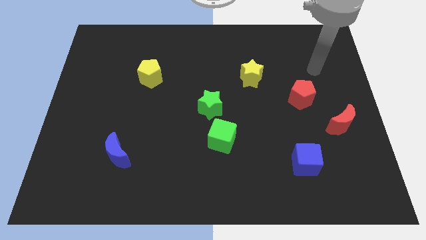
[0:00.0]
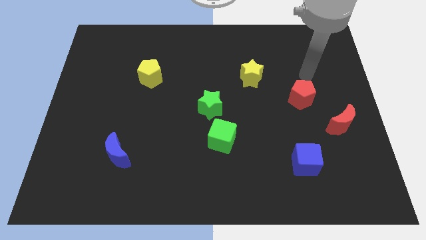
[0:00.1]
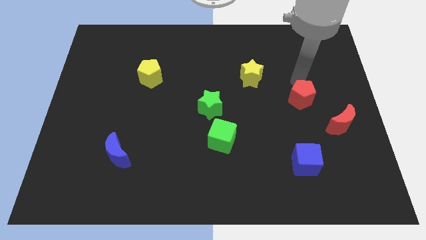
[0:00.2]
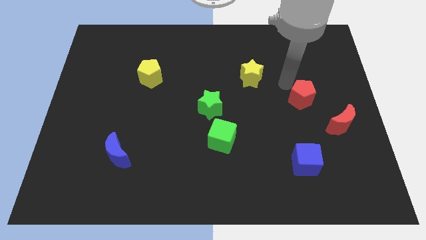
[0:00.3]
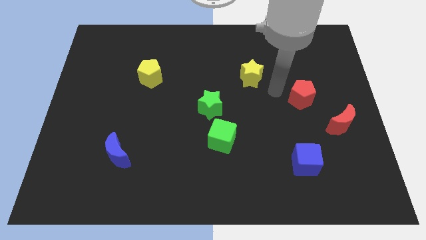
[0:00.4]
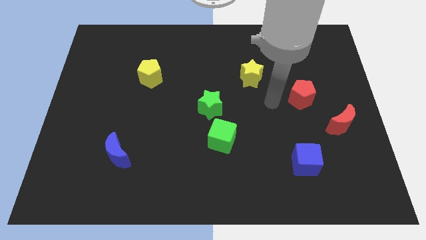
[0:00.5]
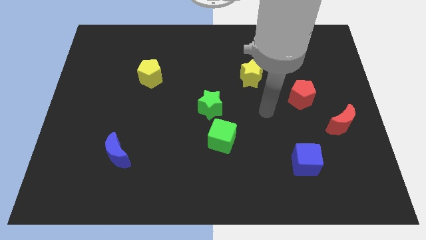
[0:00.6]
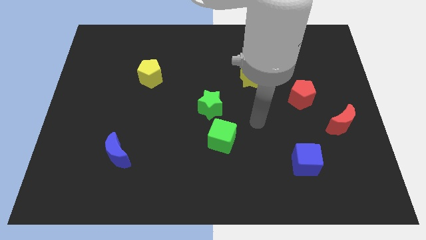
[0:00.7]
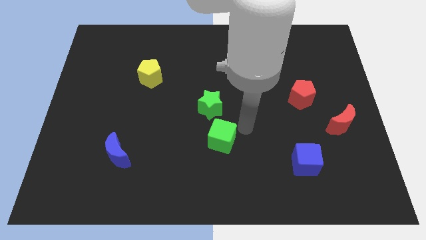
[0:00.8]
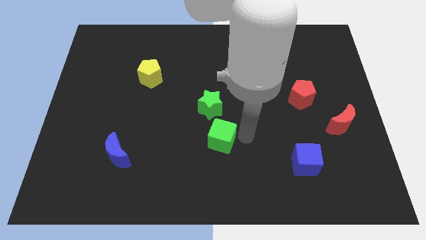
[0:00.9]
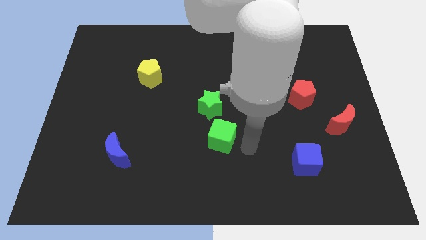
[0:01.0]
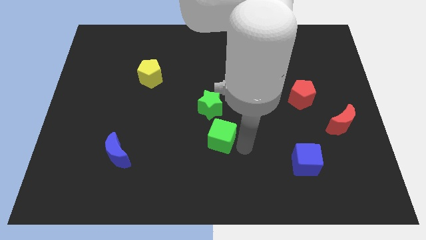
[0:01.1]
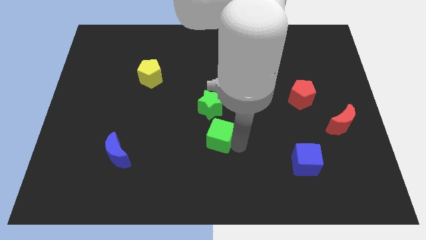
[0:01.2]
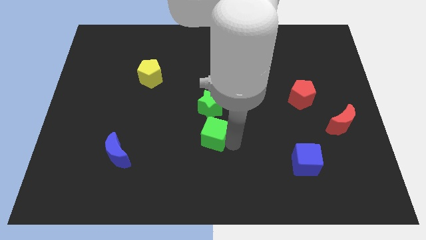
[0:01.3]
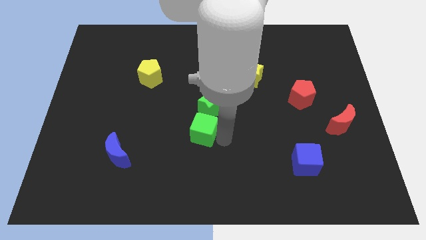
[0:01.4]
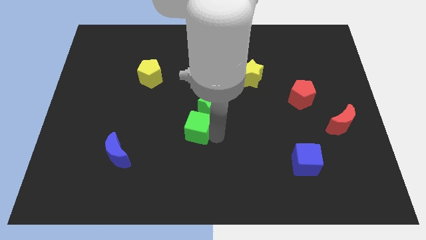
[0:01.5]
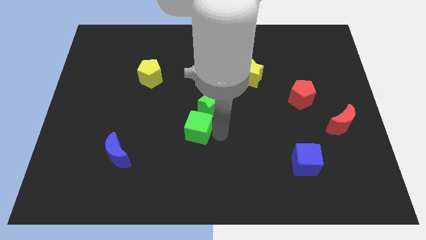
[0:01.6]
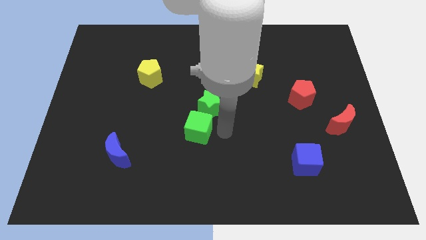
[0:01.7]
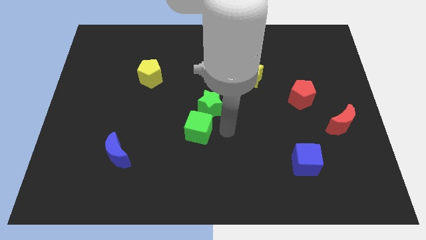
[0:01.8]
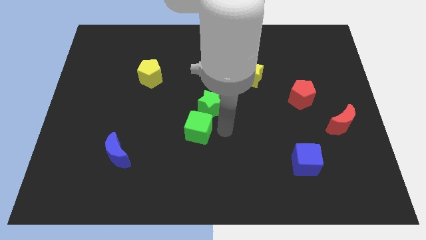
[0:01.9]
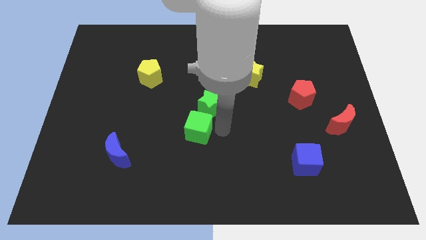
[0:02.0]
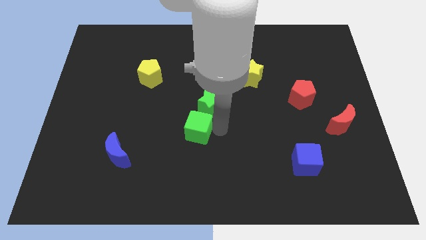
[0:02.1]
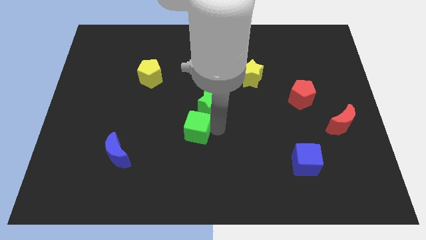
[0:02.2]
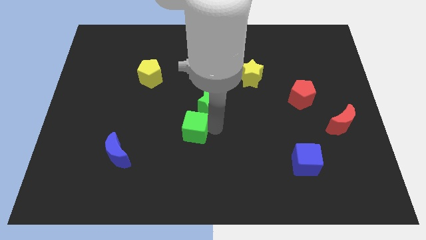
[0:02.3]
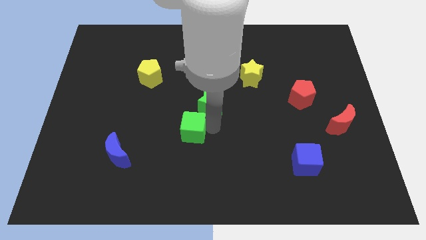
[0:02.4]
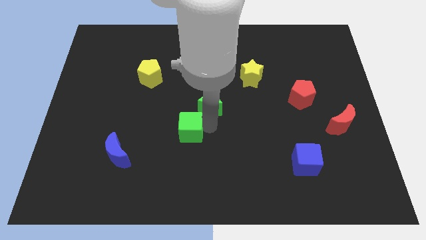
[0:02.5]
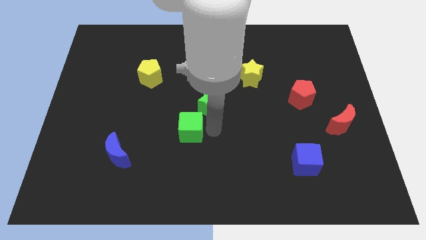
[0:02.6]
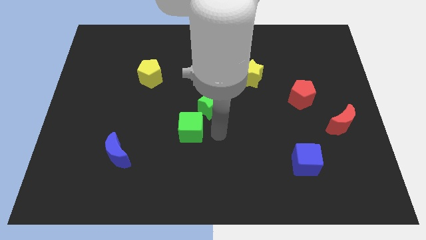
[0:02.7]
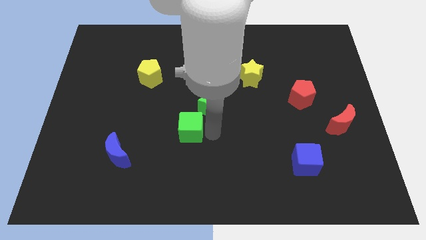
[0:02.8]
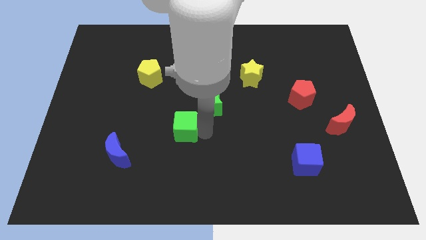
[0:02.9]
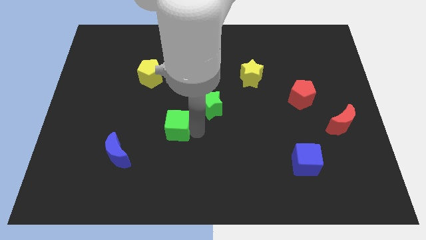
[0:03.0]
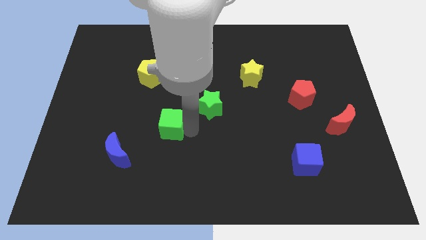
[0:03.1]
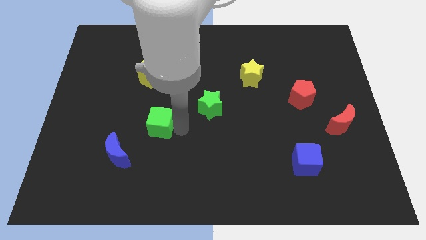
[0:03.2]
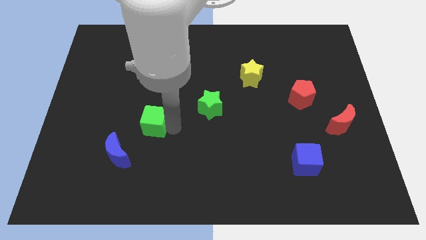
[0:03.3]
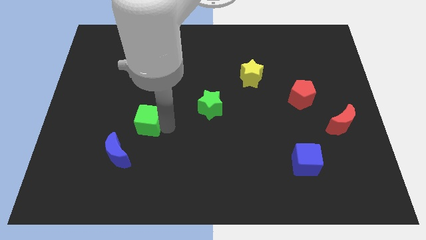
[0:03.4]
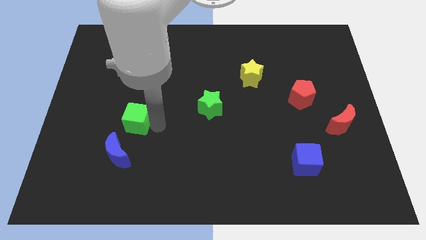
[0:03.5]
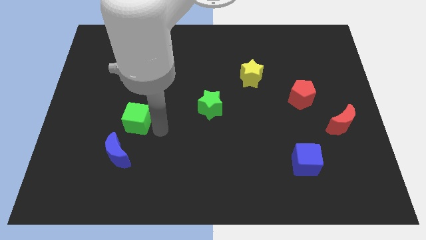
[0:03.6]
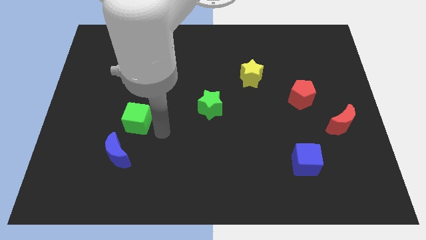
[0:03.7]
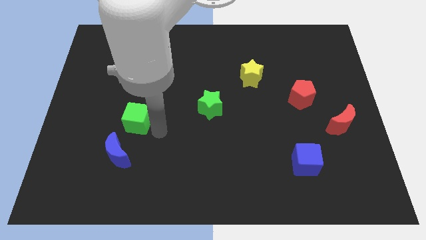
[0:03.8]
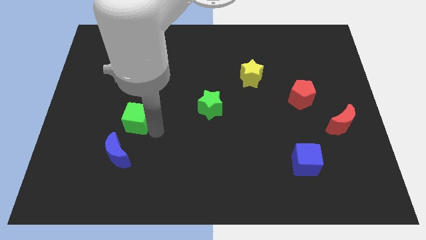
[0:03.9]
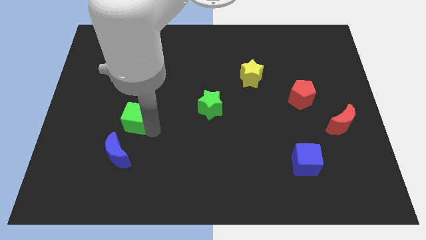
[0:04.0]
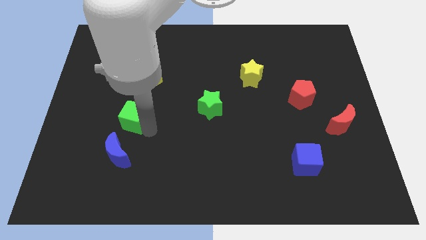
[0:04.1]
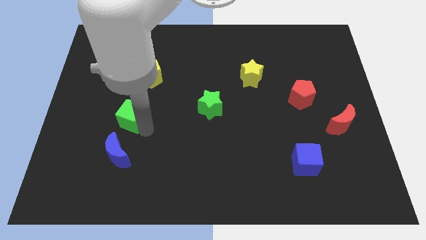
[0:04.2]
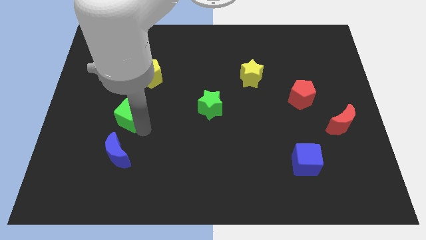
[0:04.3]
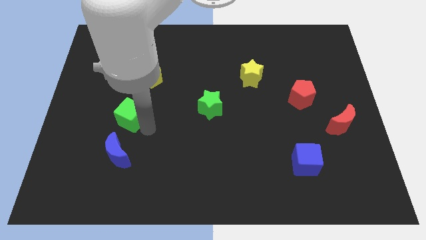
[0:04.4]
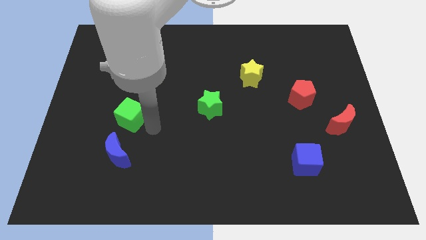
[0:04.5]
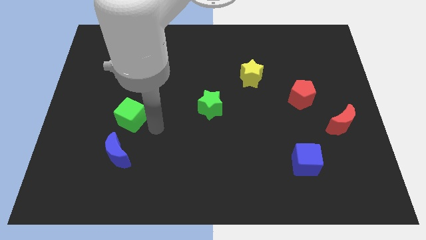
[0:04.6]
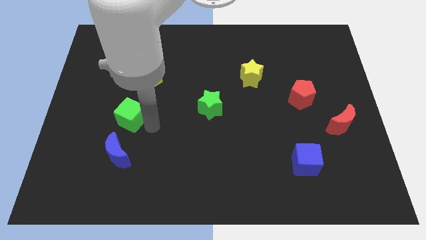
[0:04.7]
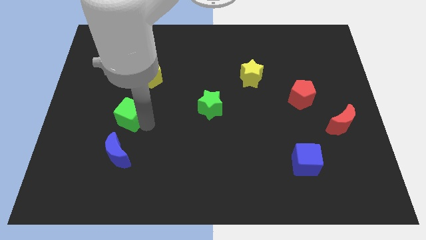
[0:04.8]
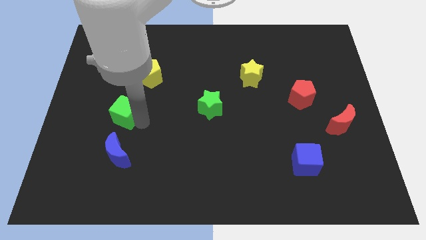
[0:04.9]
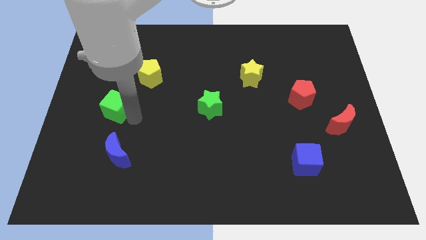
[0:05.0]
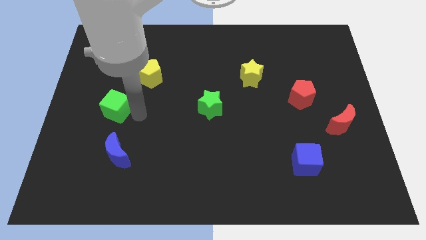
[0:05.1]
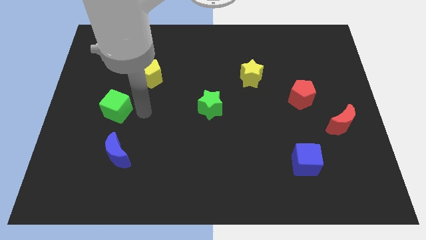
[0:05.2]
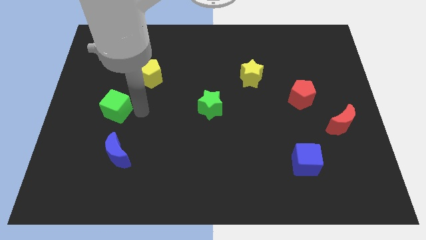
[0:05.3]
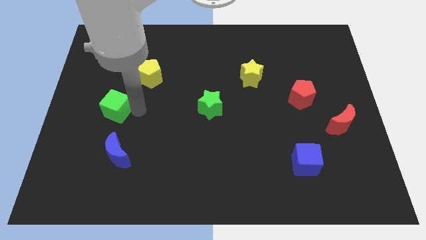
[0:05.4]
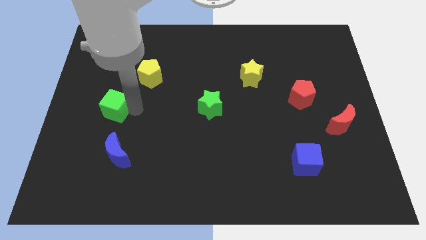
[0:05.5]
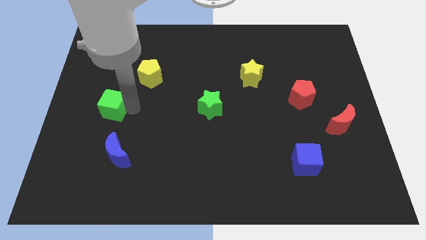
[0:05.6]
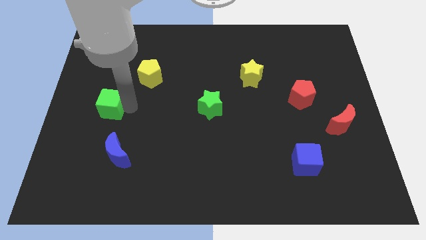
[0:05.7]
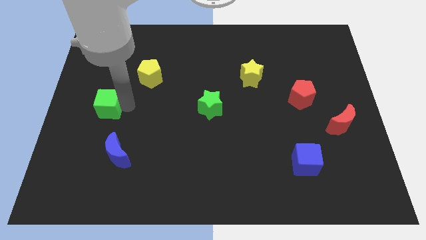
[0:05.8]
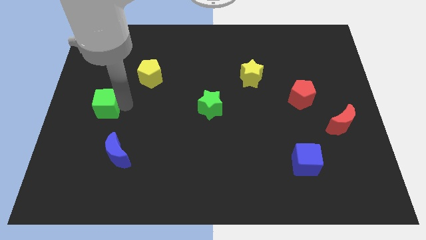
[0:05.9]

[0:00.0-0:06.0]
put the green cube to the left side

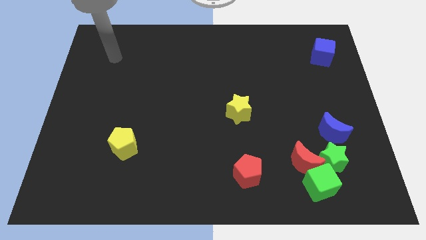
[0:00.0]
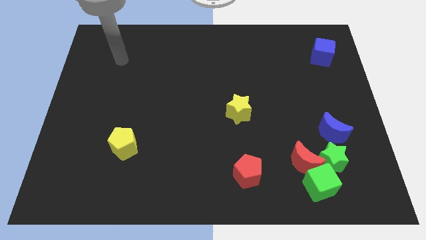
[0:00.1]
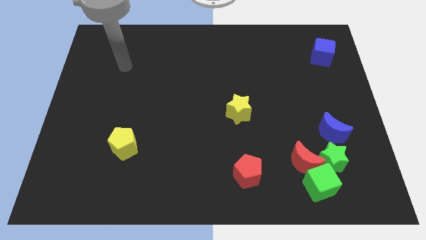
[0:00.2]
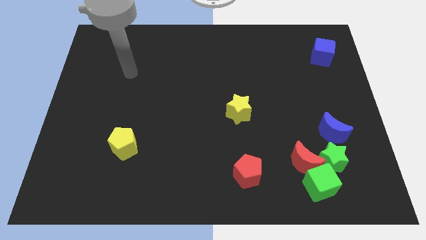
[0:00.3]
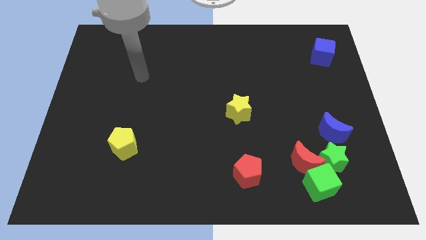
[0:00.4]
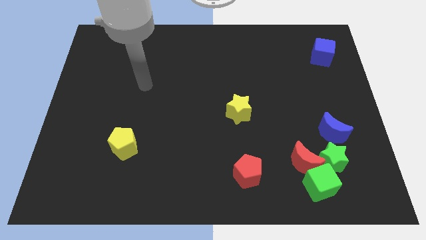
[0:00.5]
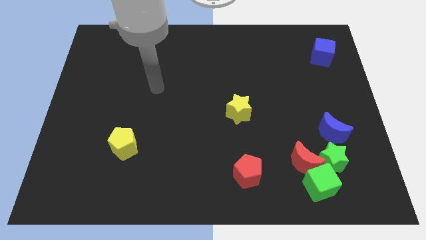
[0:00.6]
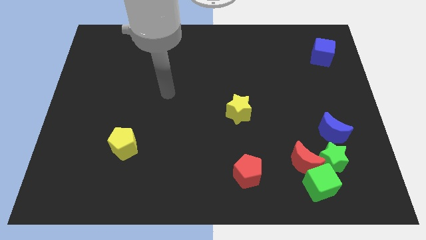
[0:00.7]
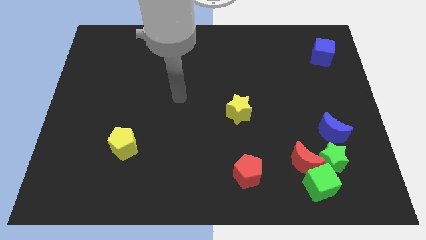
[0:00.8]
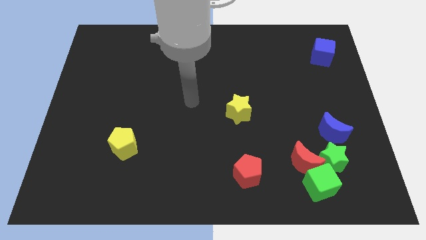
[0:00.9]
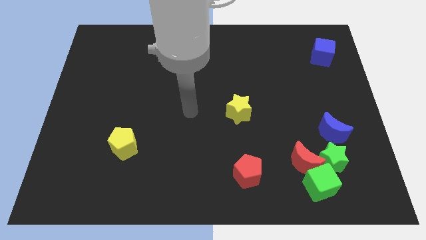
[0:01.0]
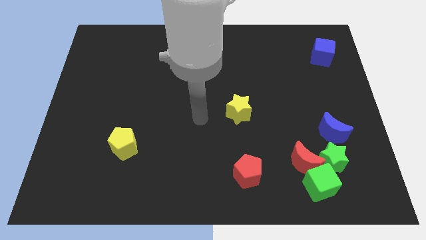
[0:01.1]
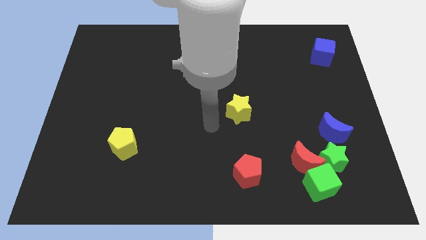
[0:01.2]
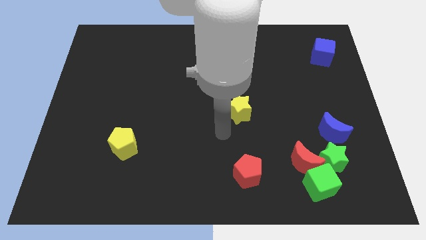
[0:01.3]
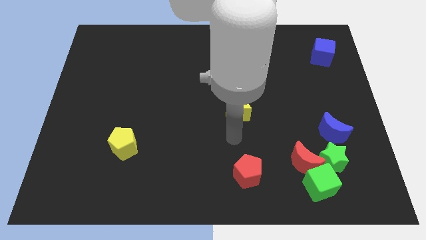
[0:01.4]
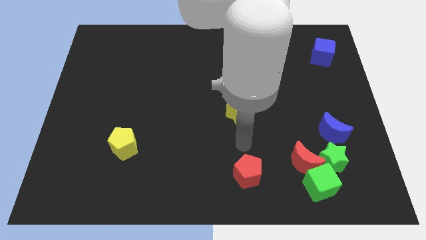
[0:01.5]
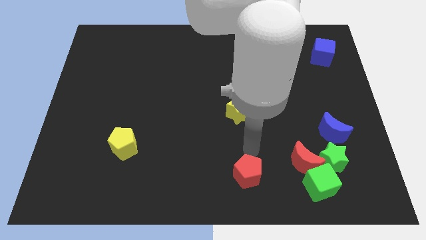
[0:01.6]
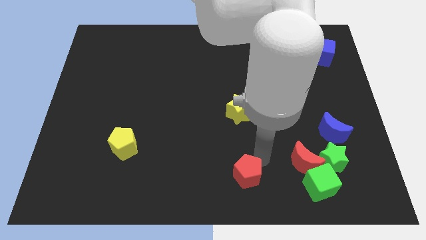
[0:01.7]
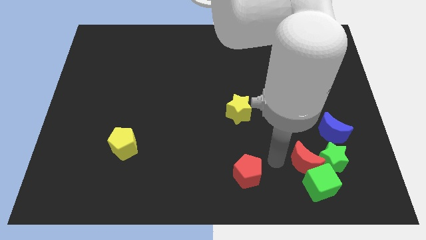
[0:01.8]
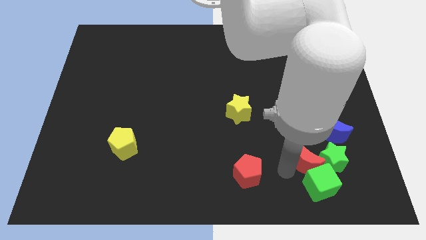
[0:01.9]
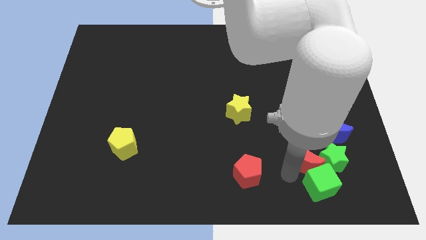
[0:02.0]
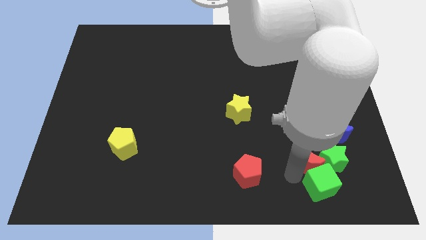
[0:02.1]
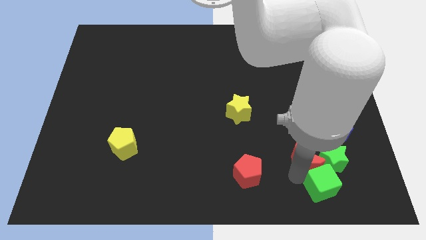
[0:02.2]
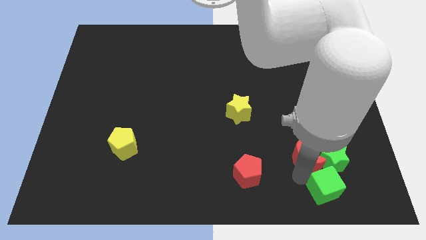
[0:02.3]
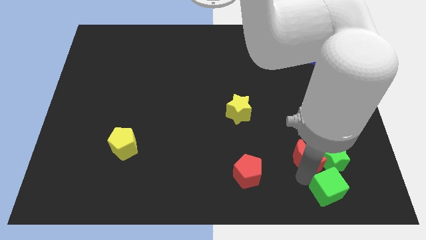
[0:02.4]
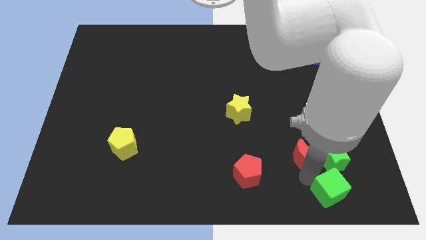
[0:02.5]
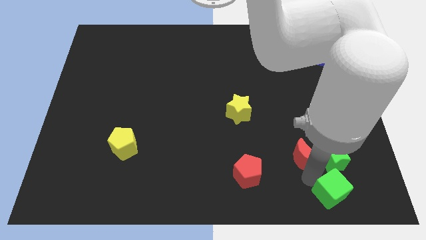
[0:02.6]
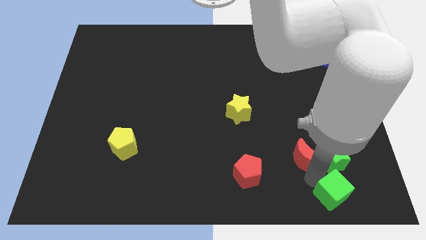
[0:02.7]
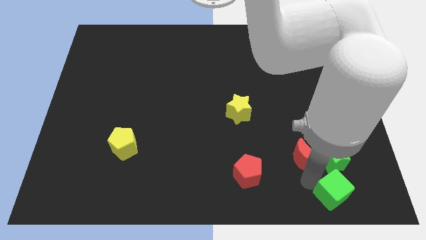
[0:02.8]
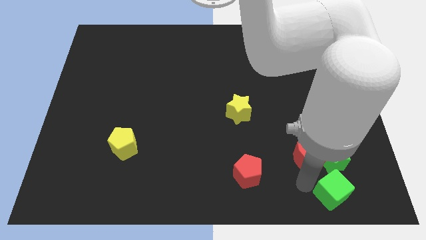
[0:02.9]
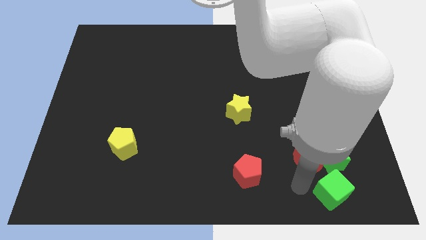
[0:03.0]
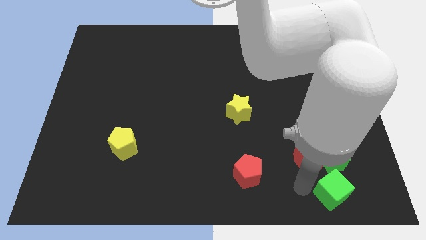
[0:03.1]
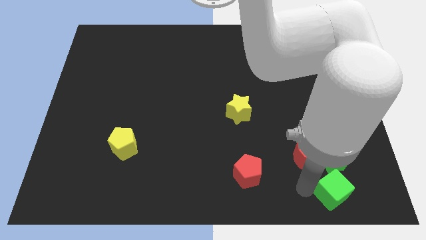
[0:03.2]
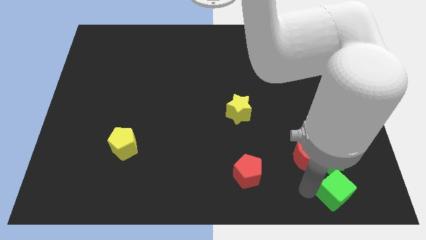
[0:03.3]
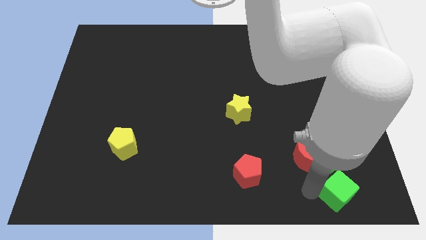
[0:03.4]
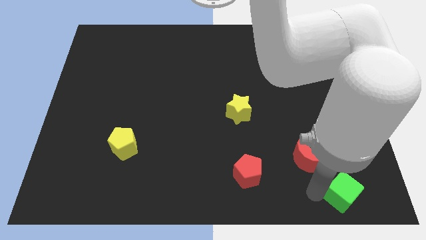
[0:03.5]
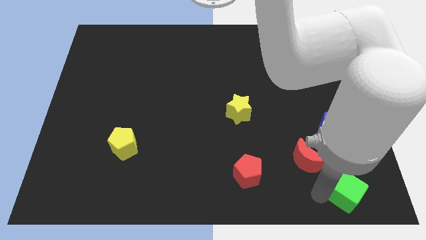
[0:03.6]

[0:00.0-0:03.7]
slide the green cube to the bottom right of the board
